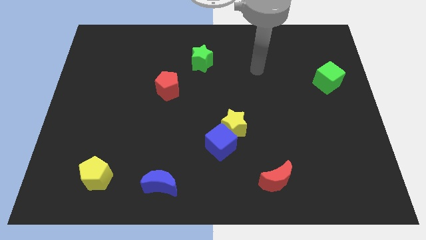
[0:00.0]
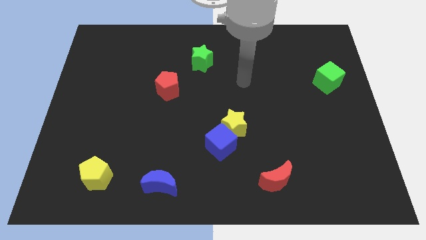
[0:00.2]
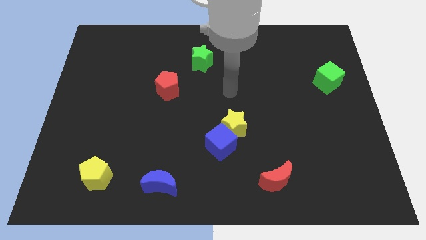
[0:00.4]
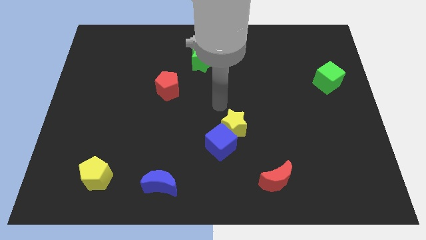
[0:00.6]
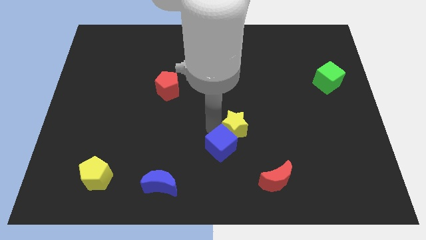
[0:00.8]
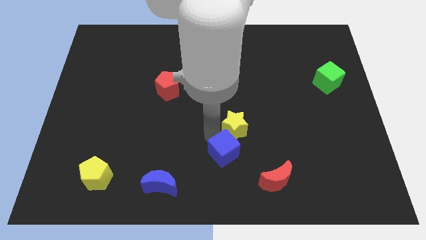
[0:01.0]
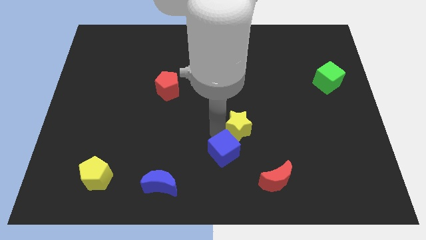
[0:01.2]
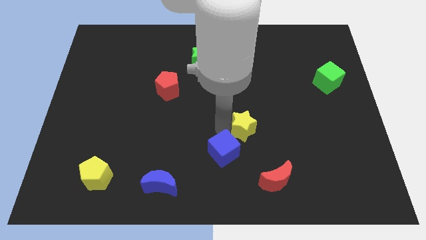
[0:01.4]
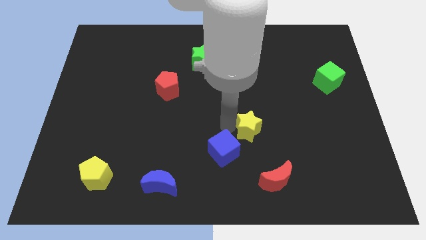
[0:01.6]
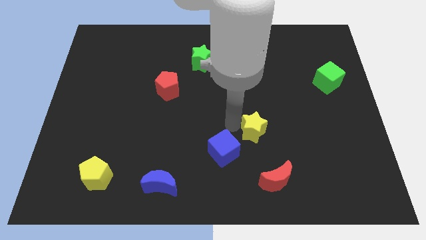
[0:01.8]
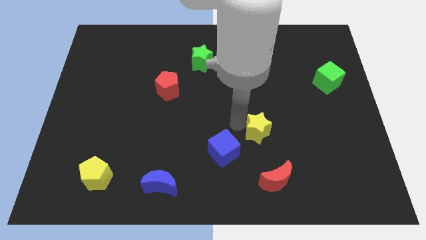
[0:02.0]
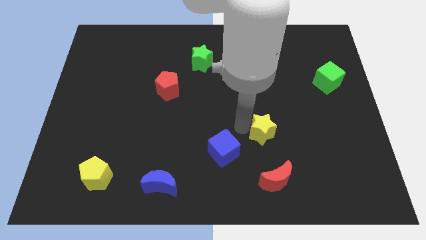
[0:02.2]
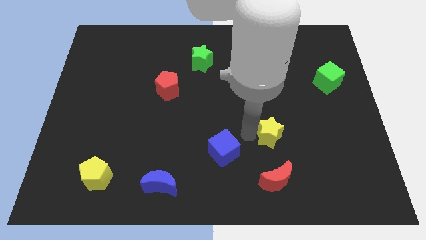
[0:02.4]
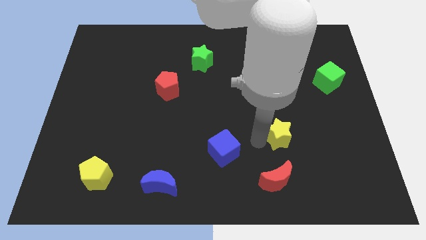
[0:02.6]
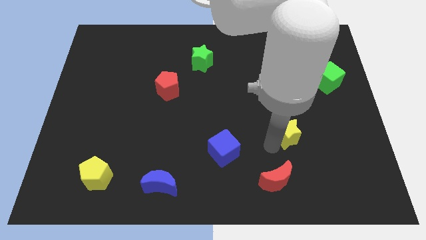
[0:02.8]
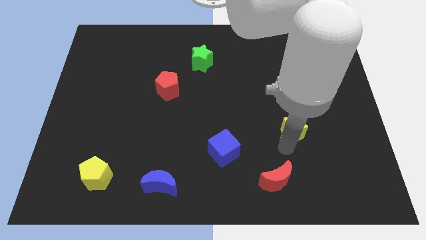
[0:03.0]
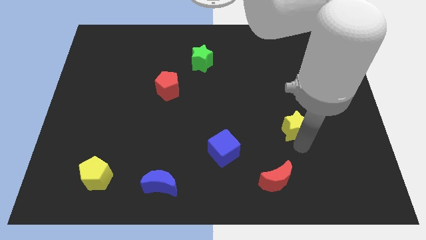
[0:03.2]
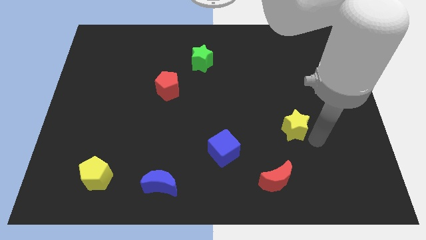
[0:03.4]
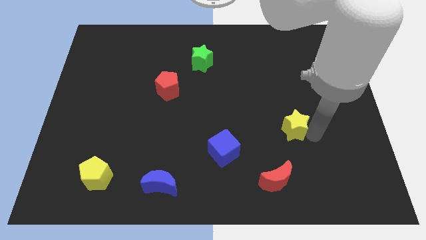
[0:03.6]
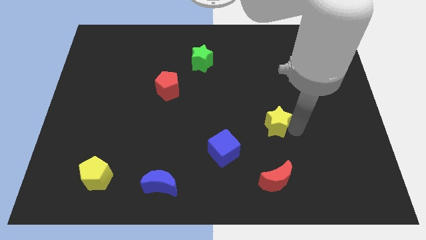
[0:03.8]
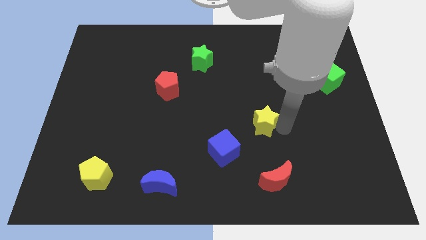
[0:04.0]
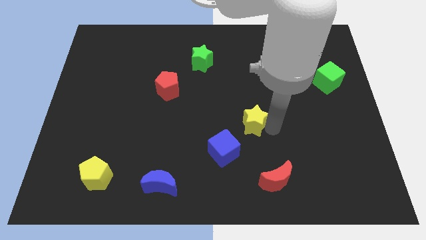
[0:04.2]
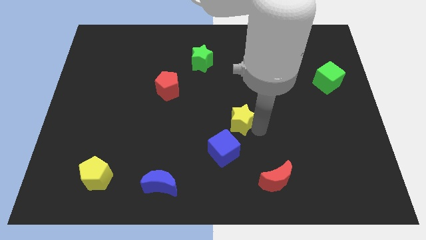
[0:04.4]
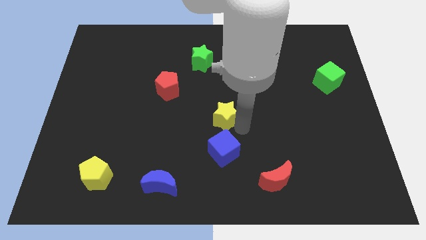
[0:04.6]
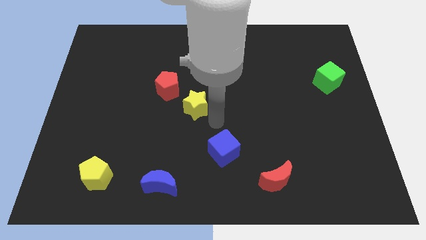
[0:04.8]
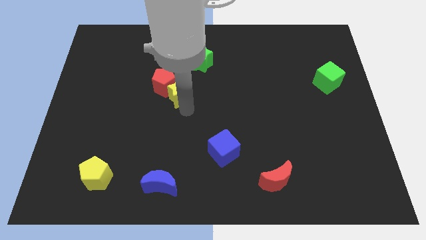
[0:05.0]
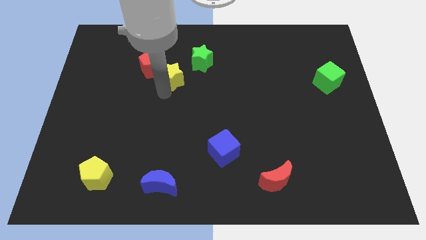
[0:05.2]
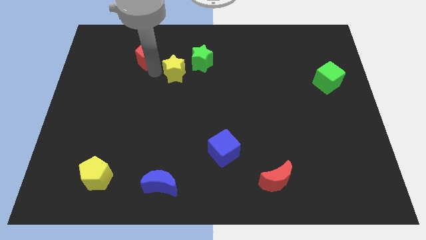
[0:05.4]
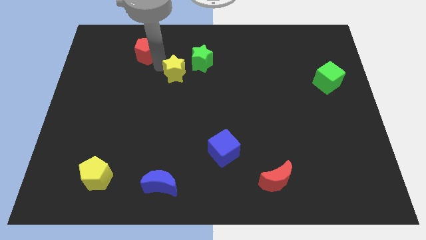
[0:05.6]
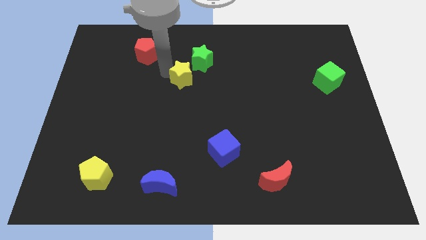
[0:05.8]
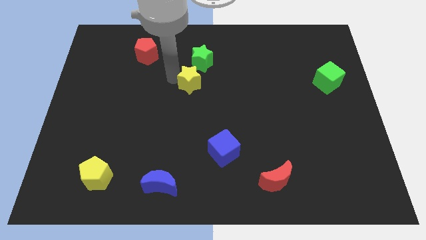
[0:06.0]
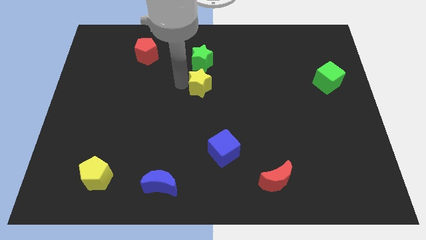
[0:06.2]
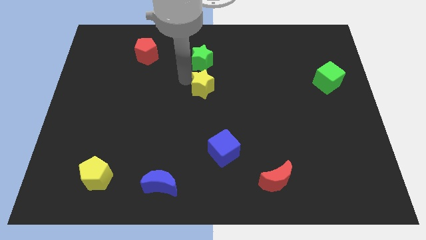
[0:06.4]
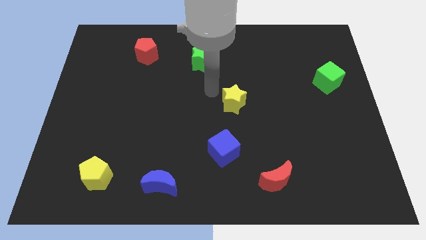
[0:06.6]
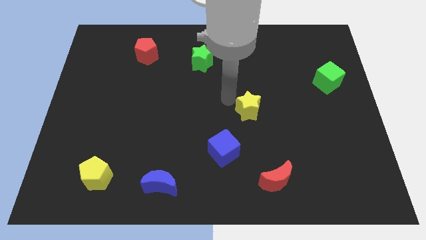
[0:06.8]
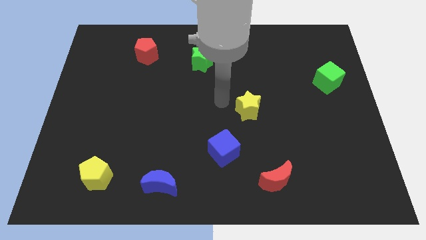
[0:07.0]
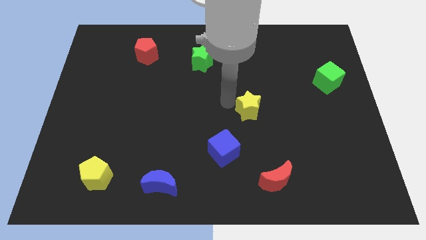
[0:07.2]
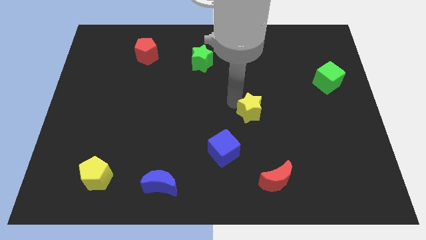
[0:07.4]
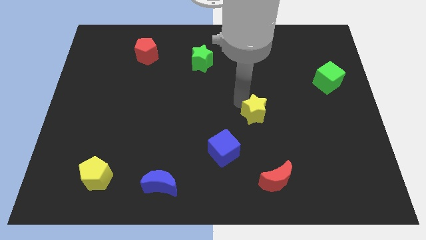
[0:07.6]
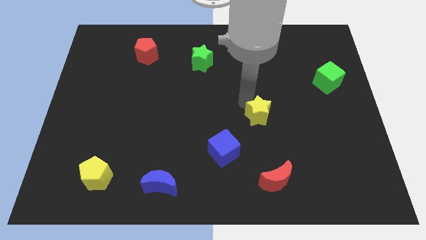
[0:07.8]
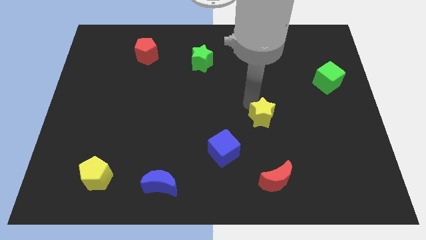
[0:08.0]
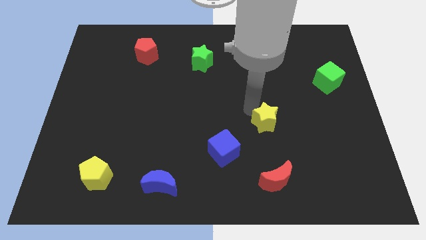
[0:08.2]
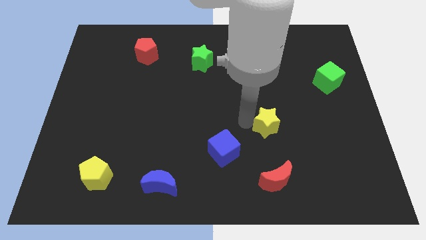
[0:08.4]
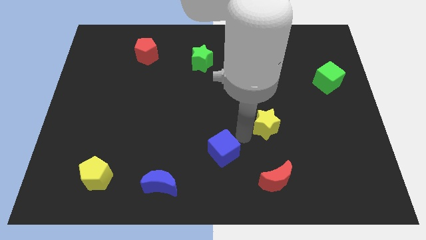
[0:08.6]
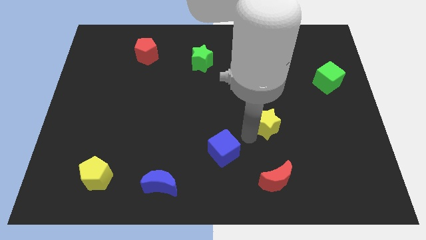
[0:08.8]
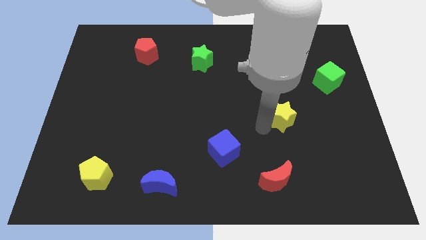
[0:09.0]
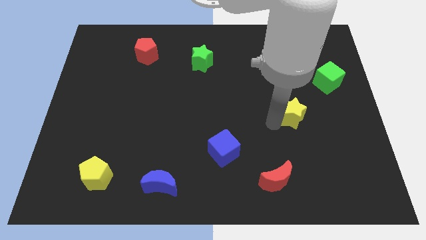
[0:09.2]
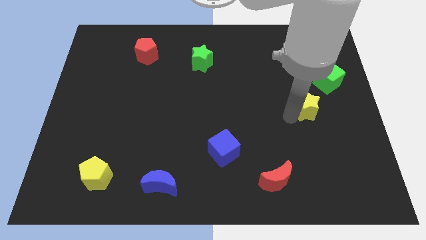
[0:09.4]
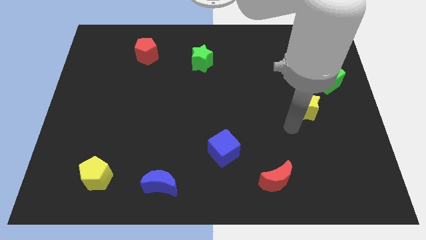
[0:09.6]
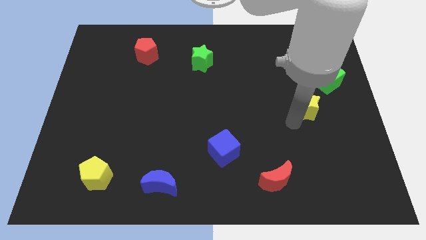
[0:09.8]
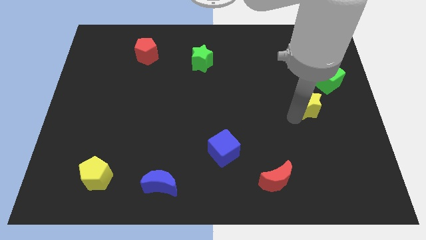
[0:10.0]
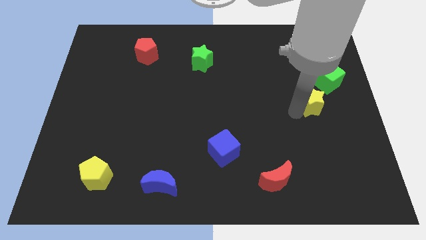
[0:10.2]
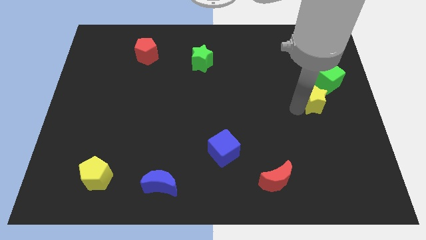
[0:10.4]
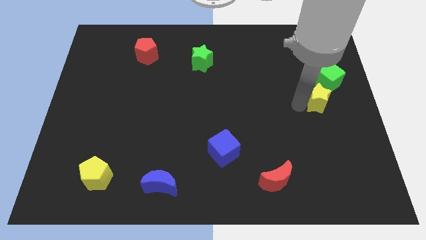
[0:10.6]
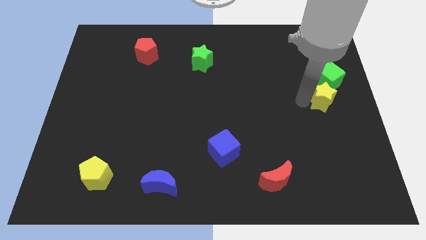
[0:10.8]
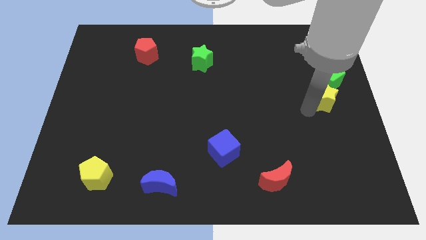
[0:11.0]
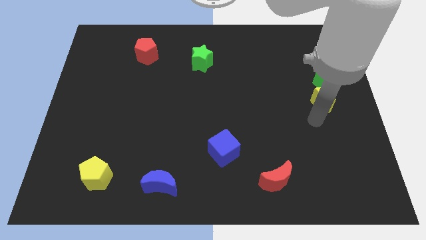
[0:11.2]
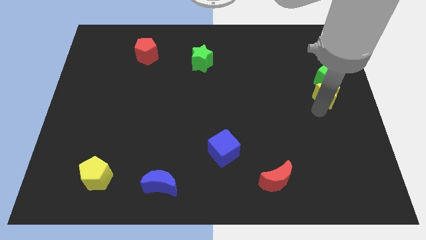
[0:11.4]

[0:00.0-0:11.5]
put the yellow star next to the green cube

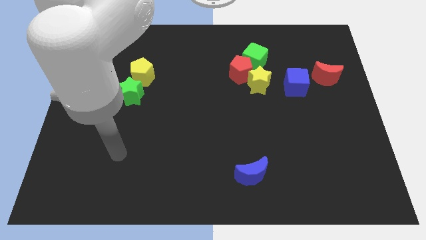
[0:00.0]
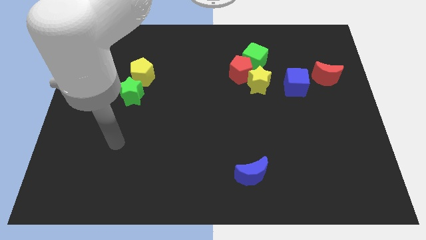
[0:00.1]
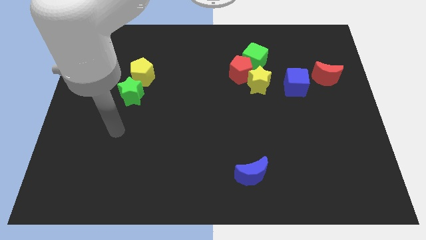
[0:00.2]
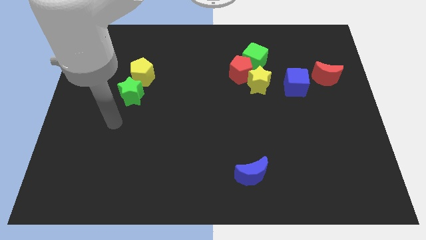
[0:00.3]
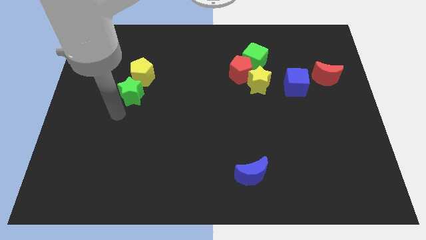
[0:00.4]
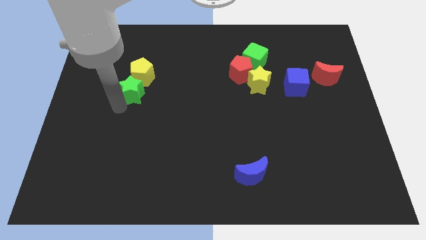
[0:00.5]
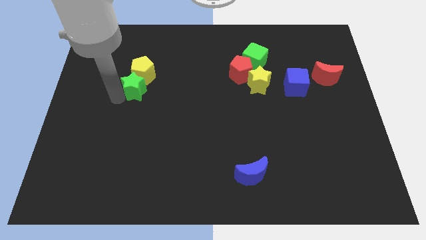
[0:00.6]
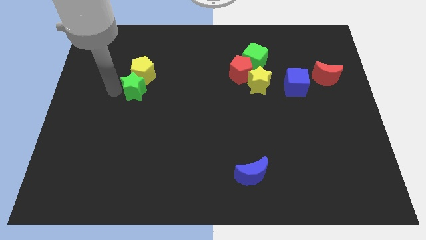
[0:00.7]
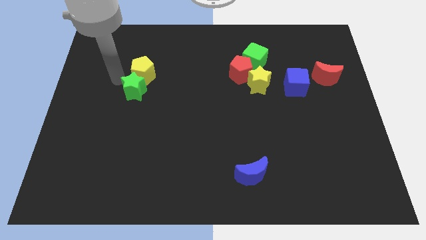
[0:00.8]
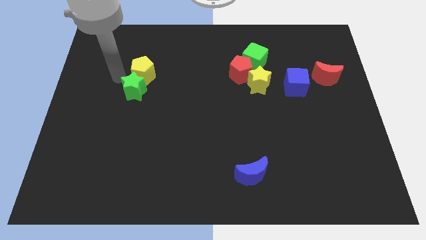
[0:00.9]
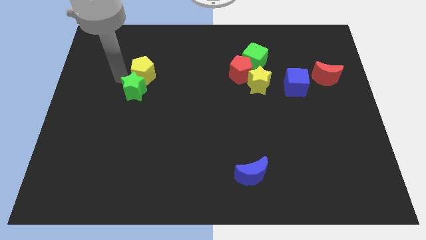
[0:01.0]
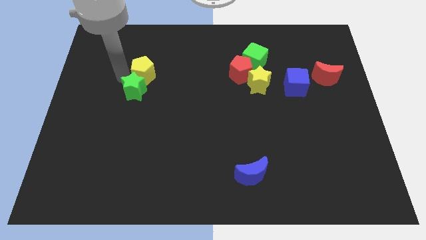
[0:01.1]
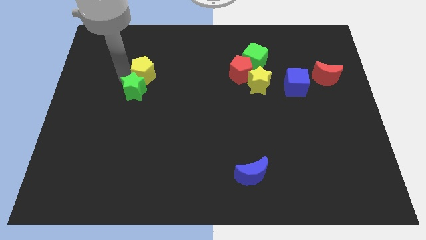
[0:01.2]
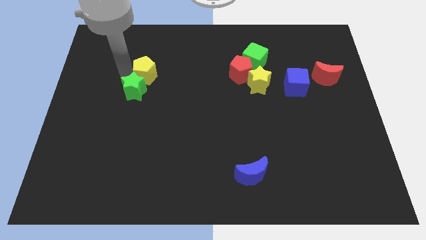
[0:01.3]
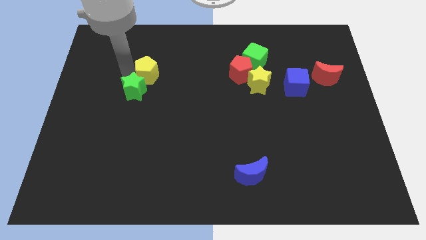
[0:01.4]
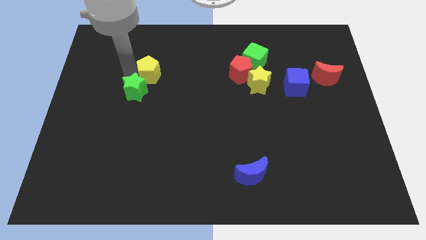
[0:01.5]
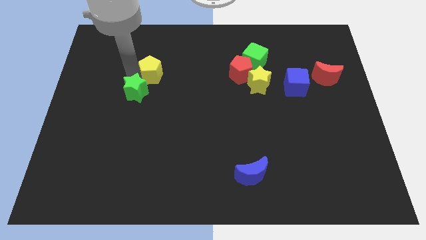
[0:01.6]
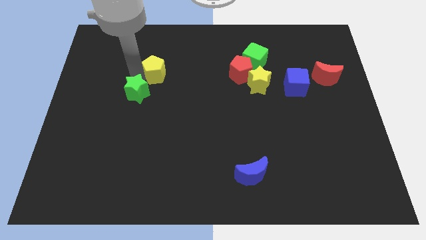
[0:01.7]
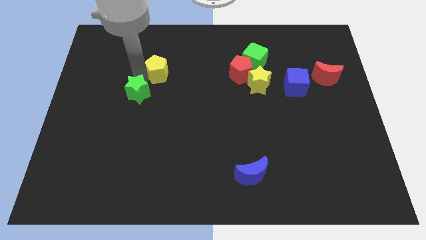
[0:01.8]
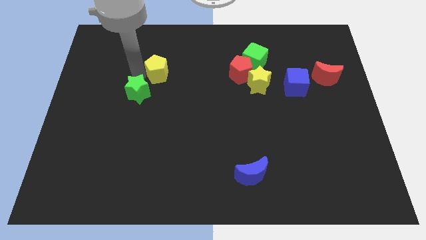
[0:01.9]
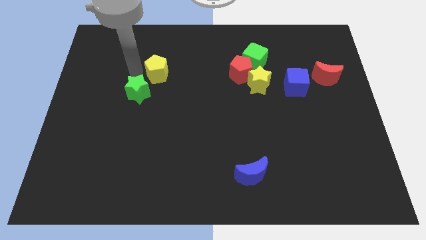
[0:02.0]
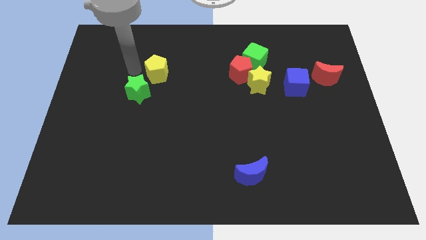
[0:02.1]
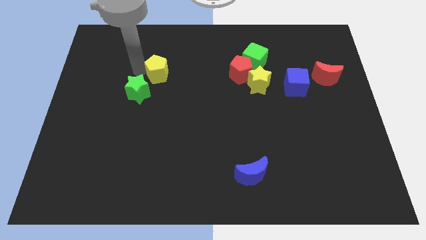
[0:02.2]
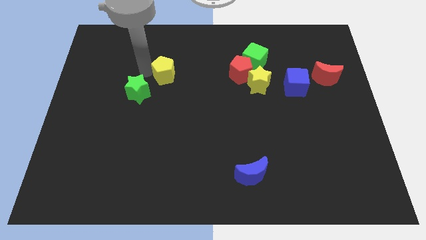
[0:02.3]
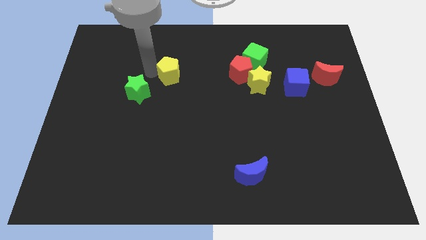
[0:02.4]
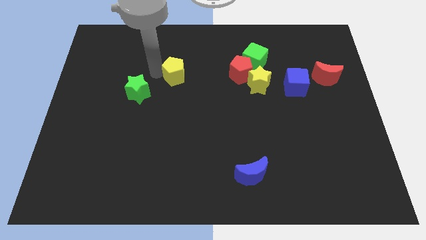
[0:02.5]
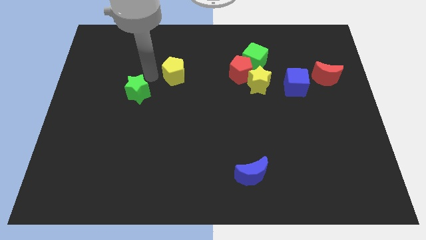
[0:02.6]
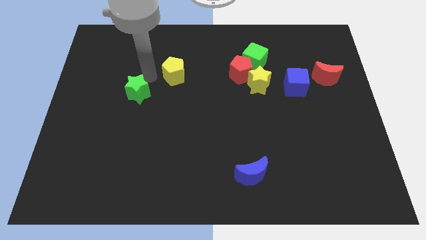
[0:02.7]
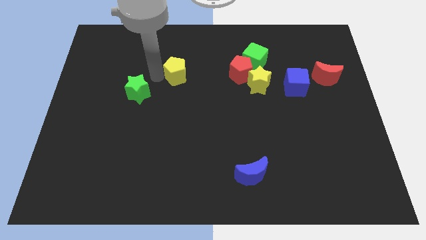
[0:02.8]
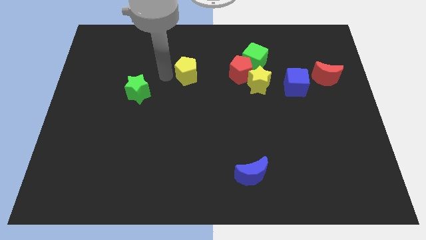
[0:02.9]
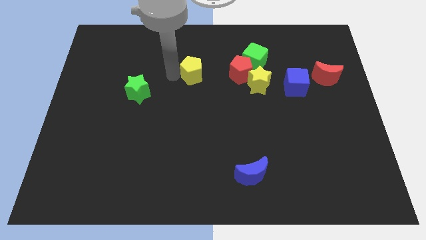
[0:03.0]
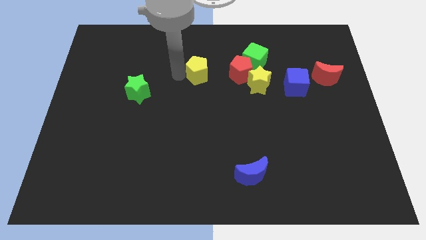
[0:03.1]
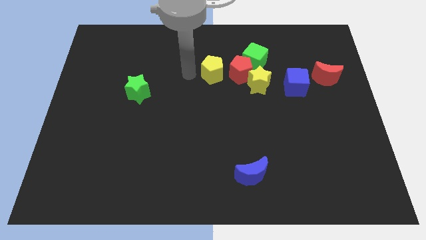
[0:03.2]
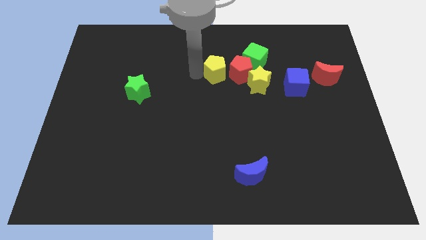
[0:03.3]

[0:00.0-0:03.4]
push the yellow pentagon to the red pentagon
